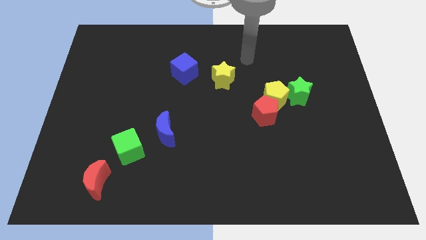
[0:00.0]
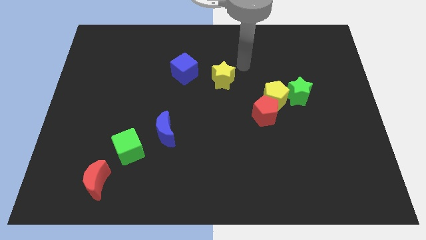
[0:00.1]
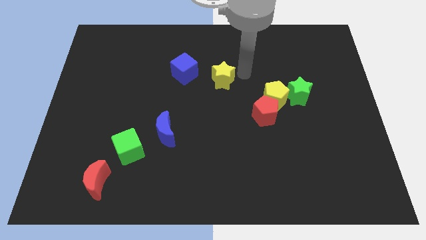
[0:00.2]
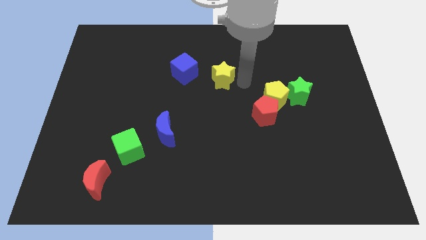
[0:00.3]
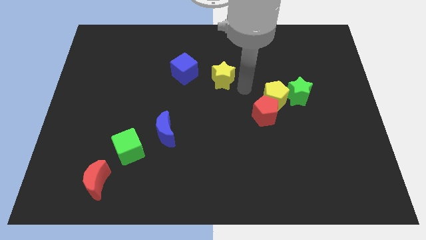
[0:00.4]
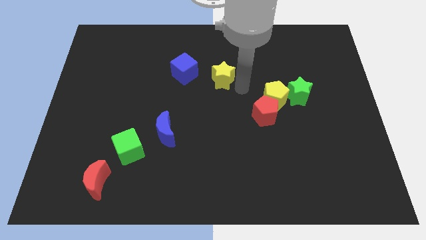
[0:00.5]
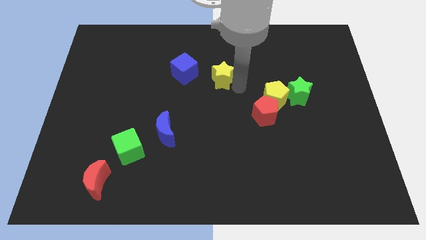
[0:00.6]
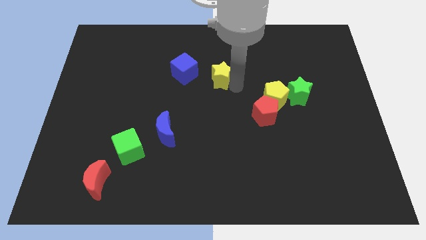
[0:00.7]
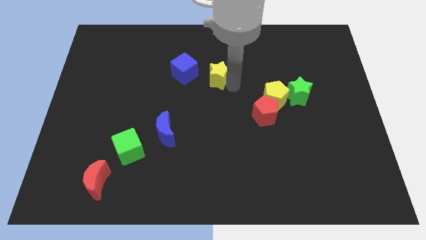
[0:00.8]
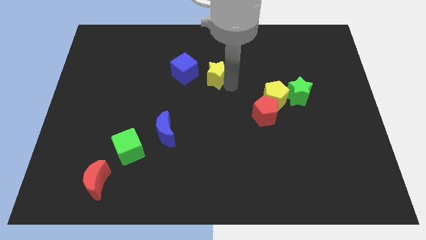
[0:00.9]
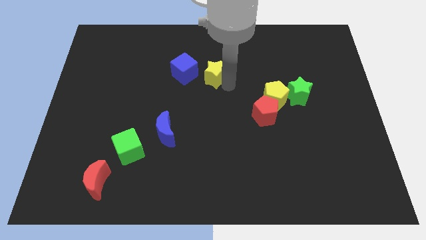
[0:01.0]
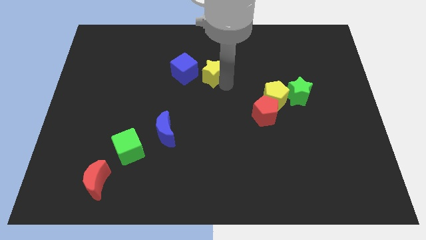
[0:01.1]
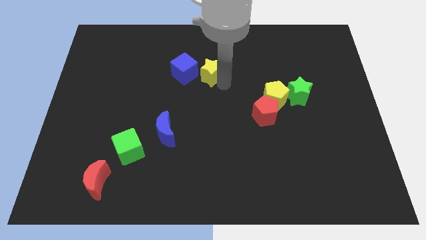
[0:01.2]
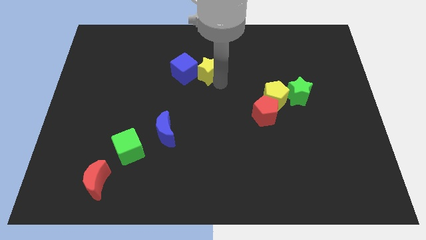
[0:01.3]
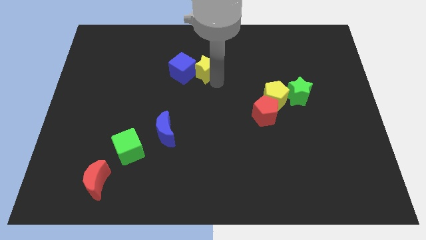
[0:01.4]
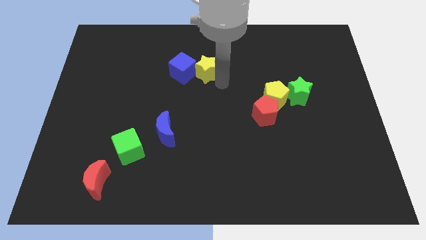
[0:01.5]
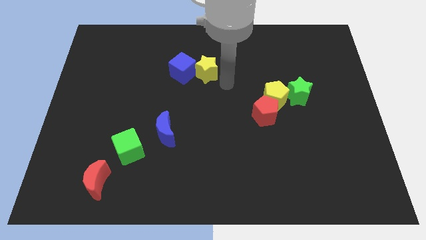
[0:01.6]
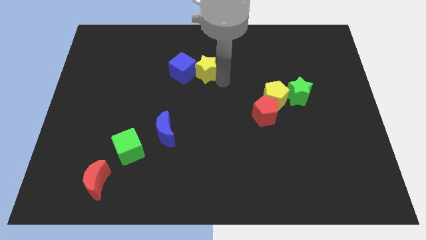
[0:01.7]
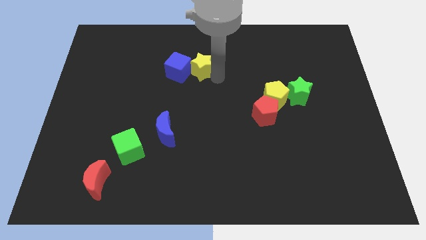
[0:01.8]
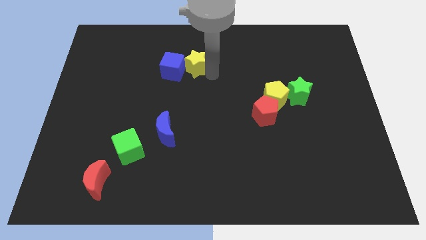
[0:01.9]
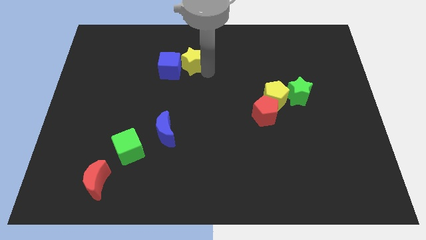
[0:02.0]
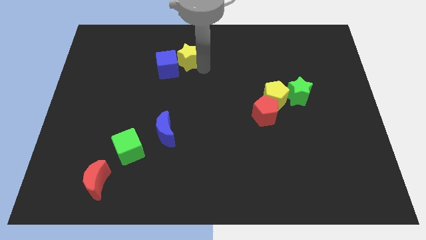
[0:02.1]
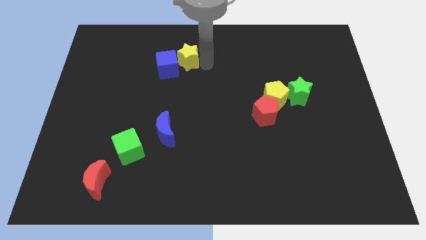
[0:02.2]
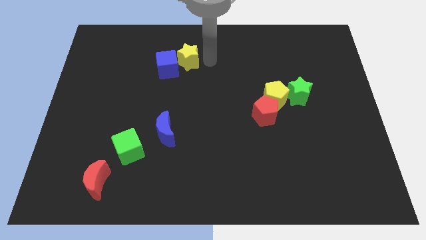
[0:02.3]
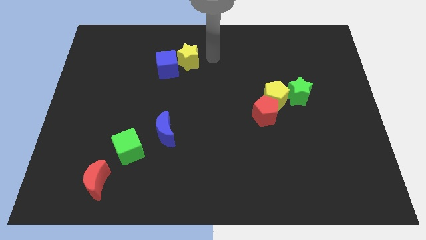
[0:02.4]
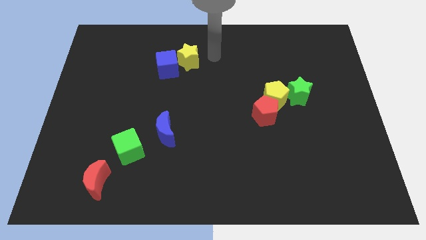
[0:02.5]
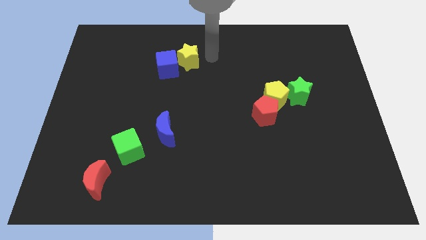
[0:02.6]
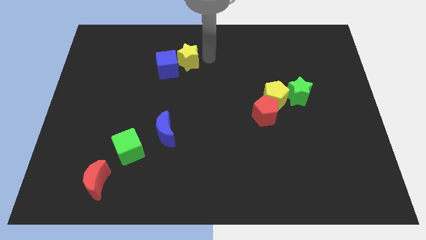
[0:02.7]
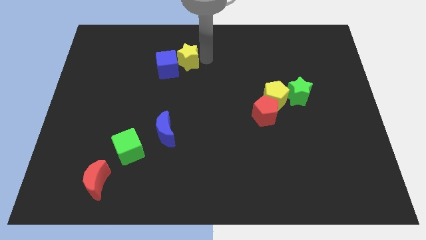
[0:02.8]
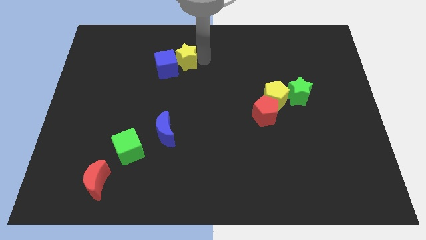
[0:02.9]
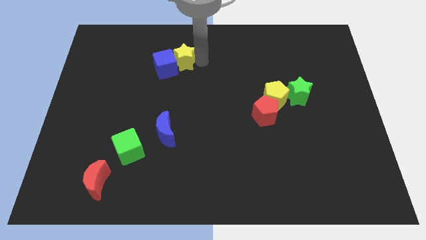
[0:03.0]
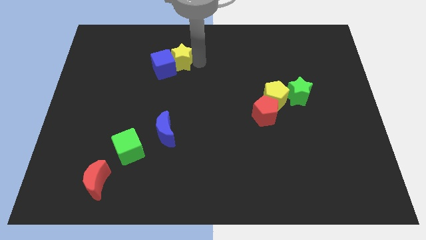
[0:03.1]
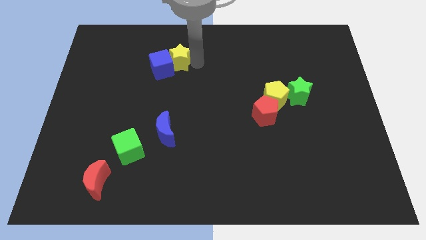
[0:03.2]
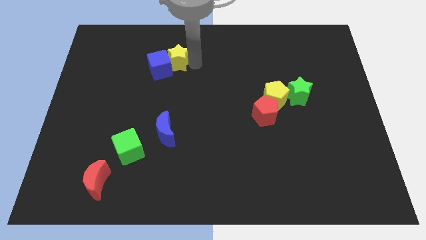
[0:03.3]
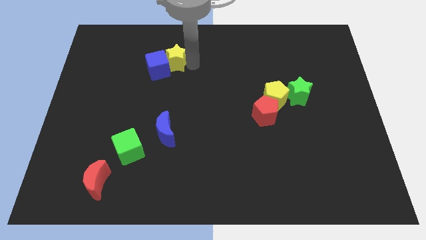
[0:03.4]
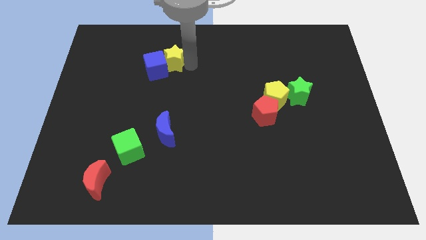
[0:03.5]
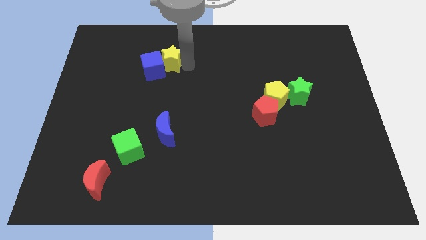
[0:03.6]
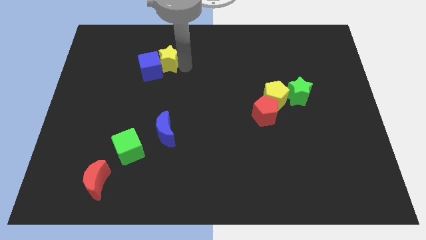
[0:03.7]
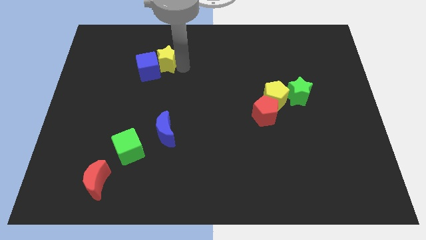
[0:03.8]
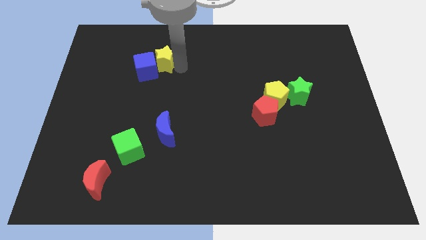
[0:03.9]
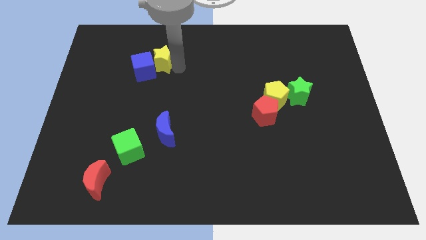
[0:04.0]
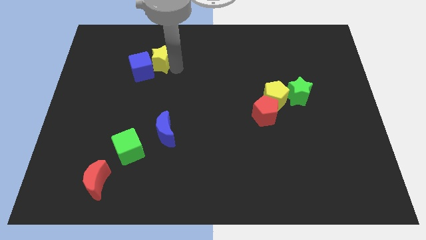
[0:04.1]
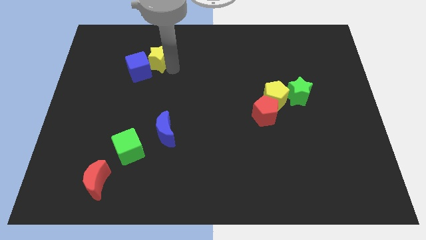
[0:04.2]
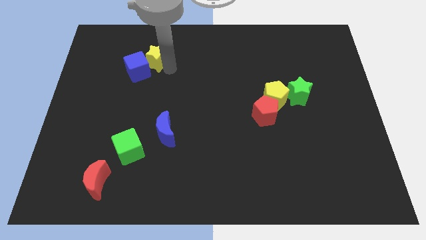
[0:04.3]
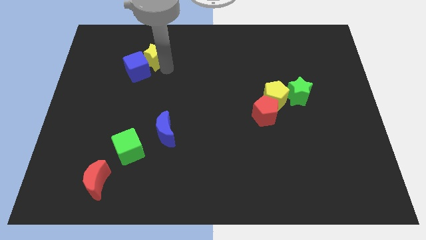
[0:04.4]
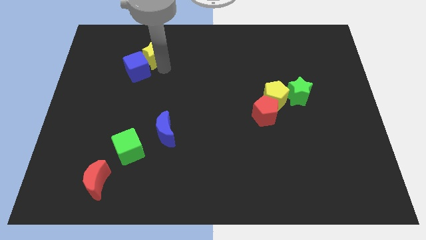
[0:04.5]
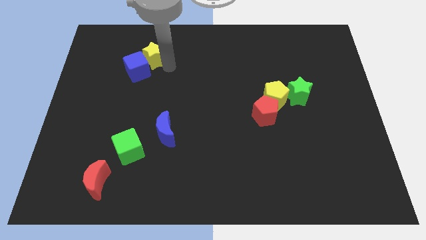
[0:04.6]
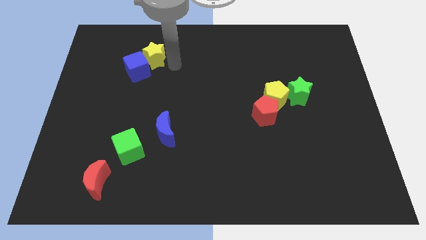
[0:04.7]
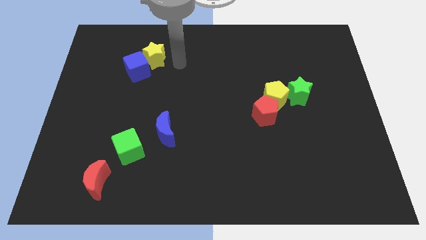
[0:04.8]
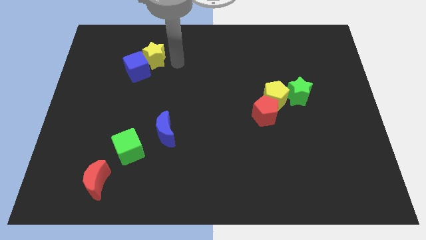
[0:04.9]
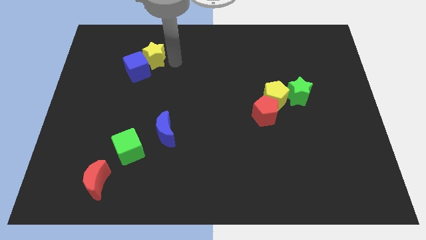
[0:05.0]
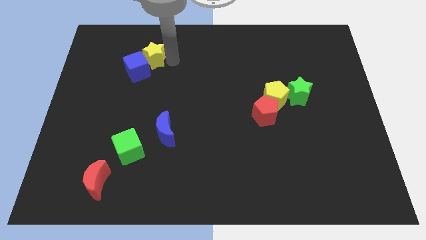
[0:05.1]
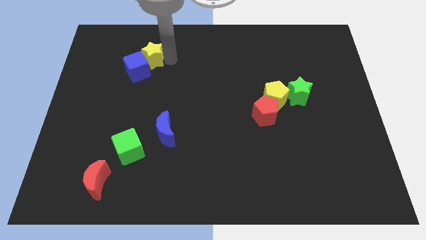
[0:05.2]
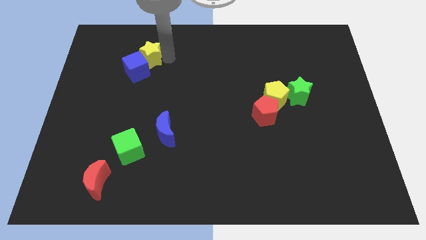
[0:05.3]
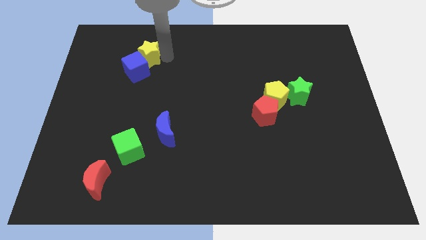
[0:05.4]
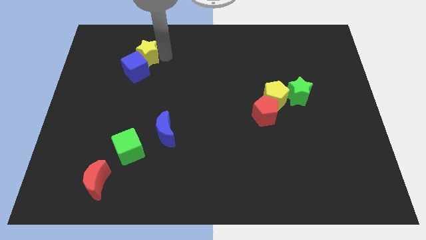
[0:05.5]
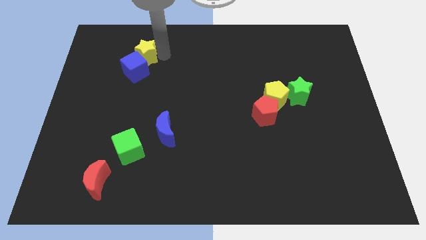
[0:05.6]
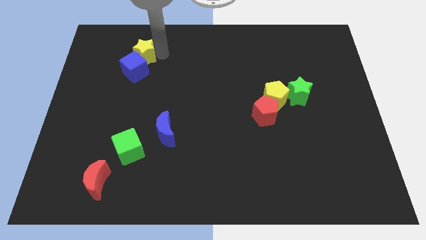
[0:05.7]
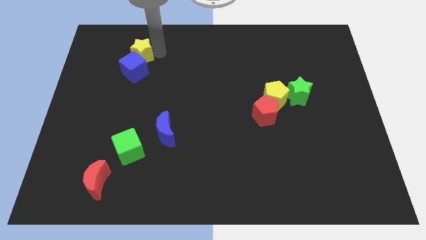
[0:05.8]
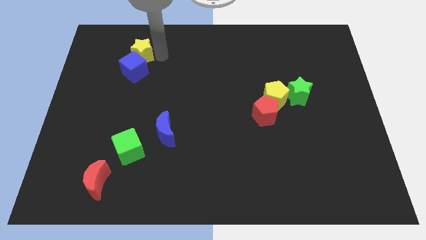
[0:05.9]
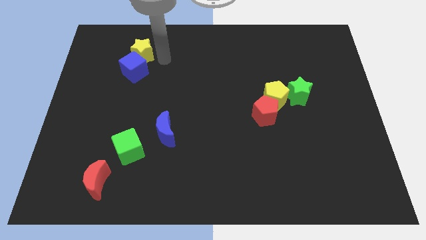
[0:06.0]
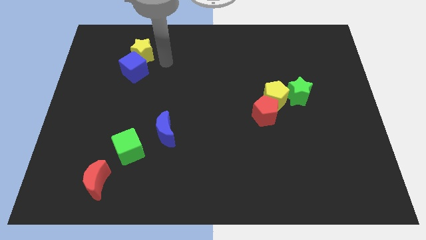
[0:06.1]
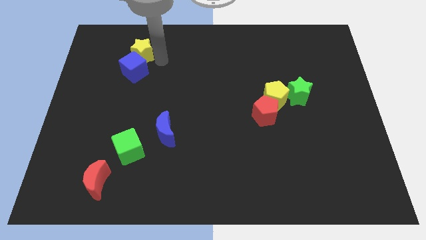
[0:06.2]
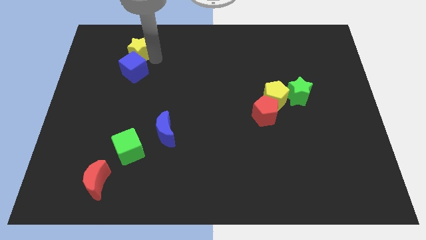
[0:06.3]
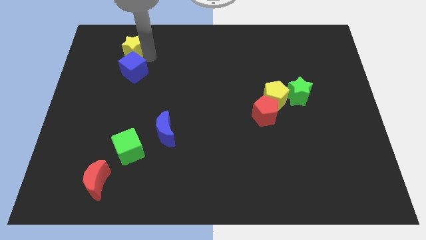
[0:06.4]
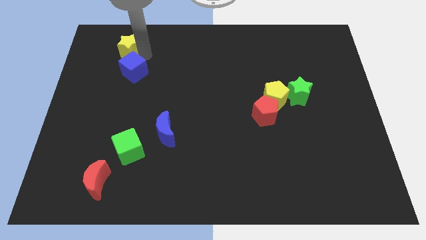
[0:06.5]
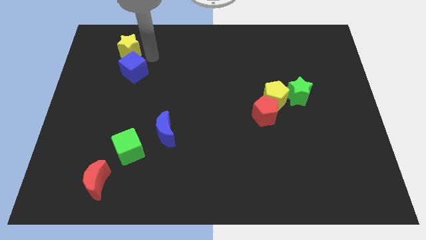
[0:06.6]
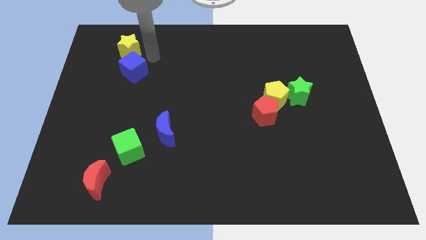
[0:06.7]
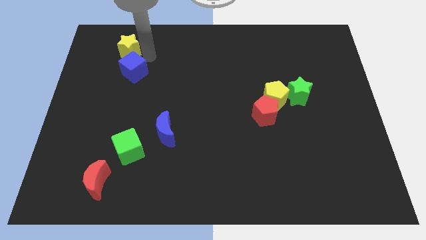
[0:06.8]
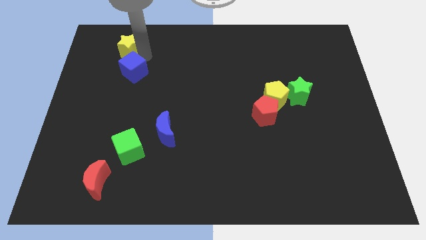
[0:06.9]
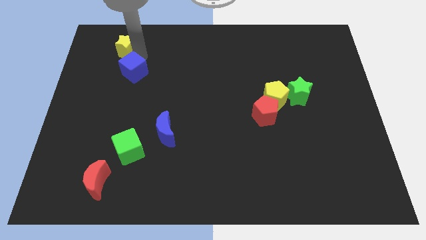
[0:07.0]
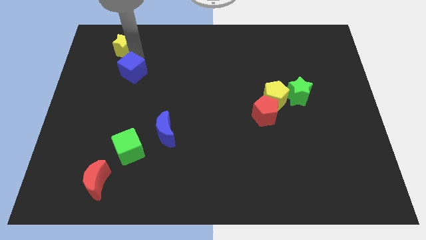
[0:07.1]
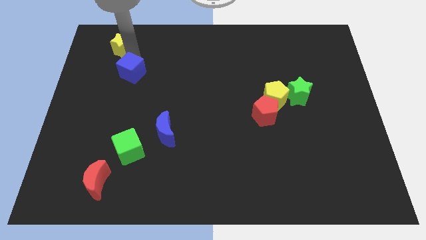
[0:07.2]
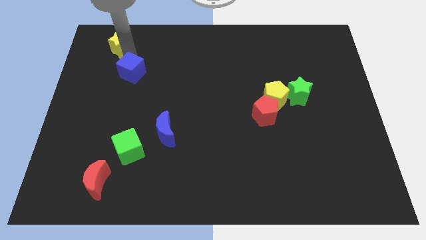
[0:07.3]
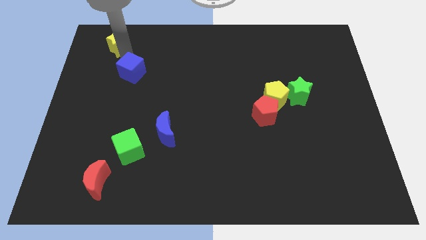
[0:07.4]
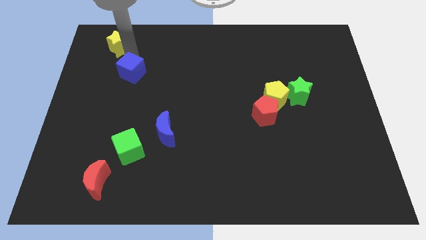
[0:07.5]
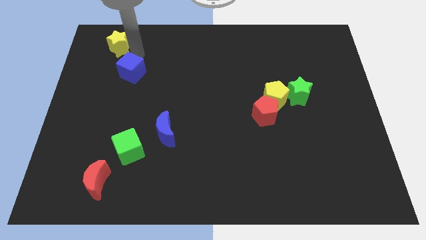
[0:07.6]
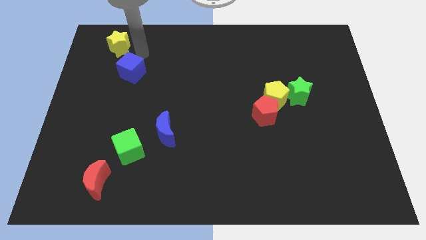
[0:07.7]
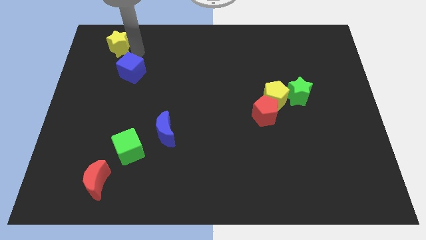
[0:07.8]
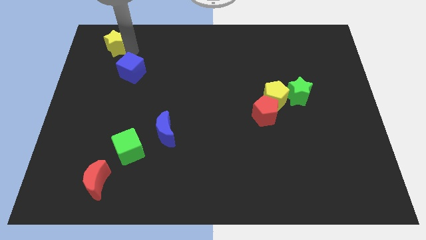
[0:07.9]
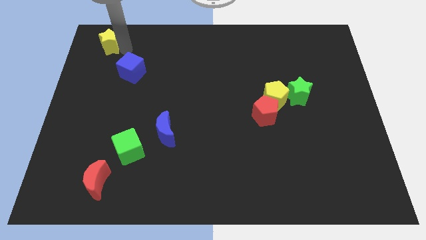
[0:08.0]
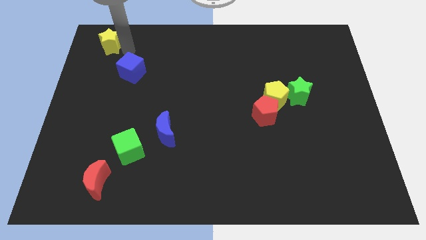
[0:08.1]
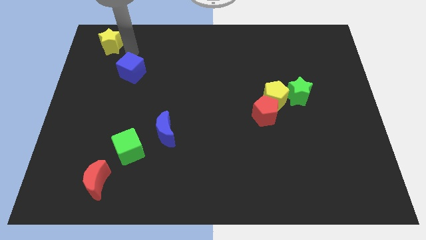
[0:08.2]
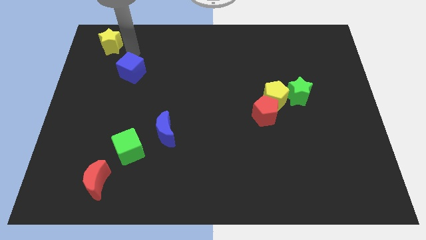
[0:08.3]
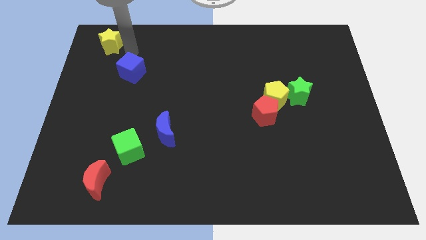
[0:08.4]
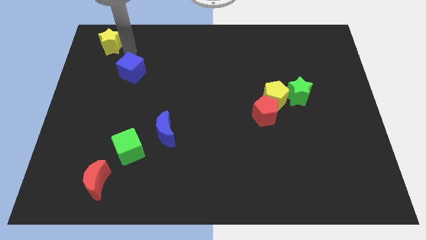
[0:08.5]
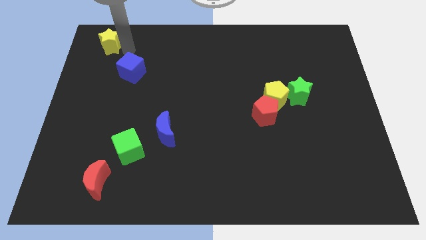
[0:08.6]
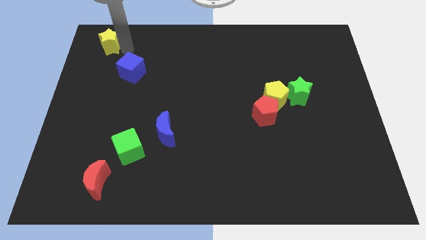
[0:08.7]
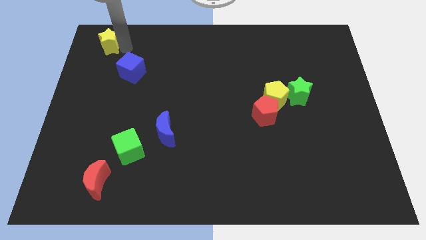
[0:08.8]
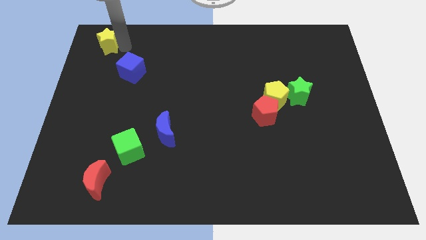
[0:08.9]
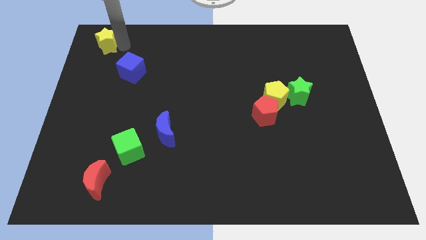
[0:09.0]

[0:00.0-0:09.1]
push the yellow star to the upper left corner
